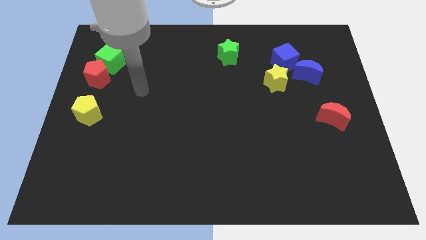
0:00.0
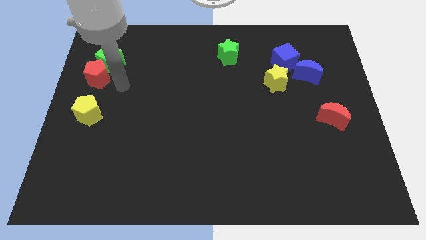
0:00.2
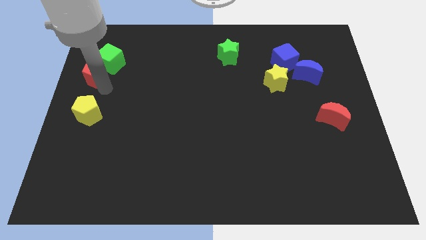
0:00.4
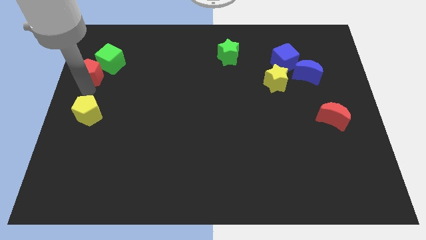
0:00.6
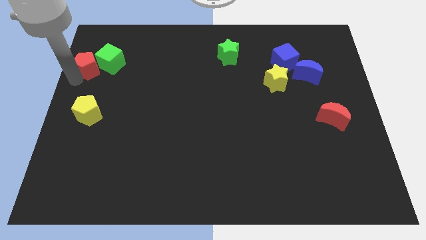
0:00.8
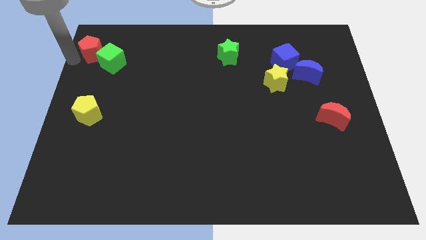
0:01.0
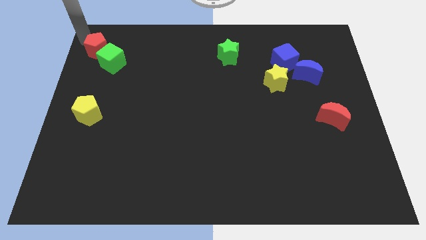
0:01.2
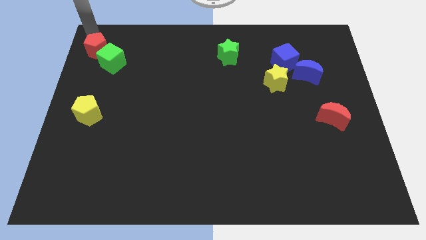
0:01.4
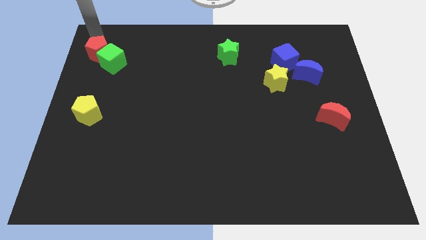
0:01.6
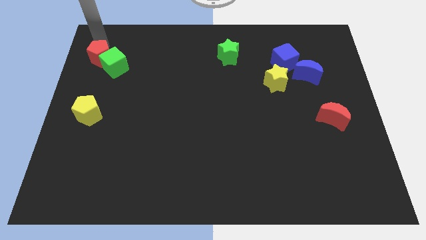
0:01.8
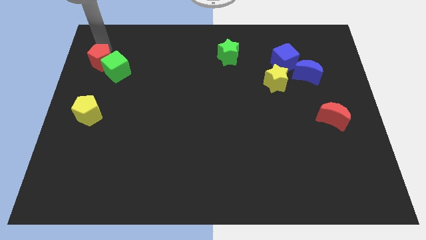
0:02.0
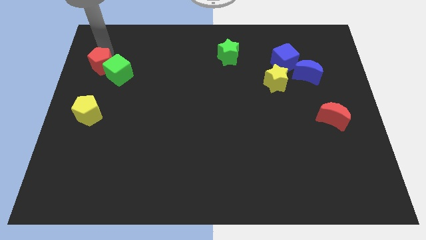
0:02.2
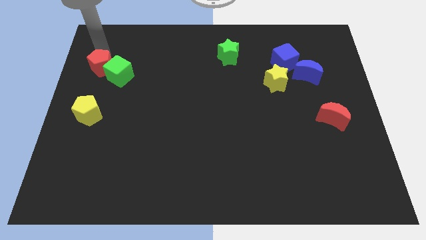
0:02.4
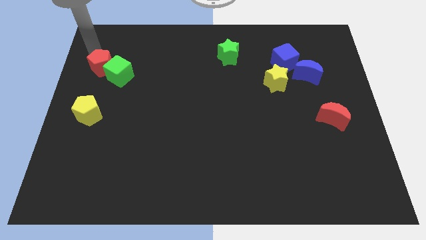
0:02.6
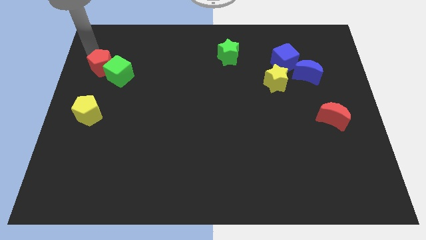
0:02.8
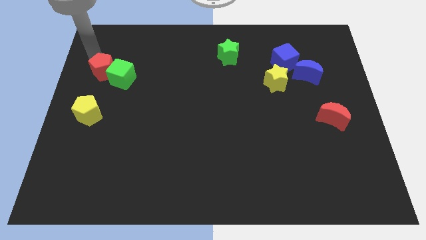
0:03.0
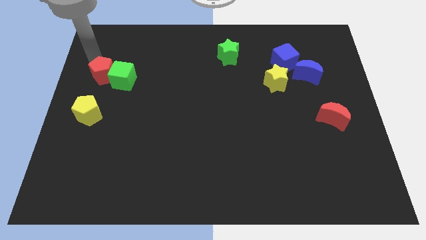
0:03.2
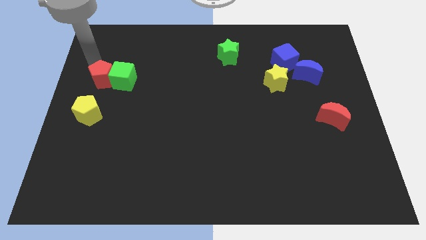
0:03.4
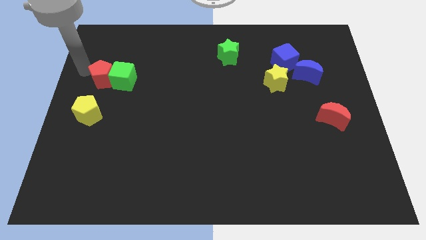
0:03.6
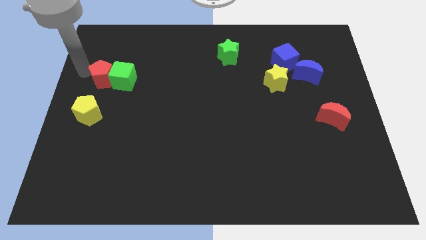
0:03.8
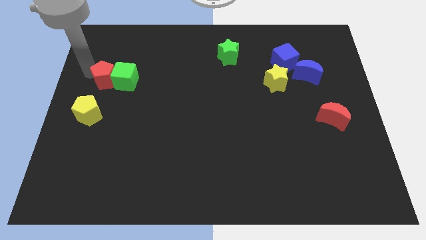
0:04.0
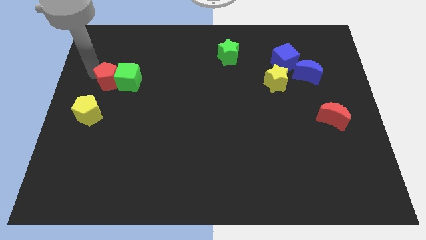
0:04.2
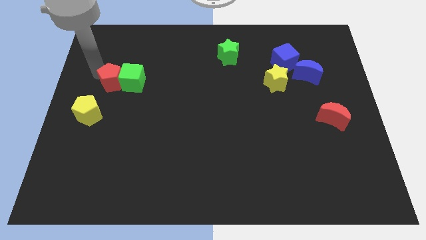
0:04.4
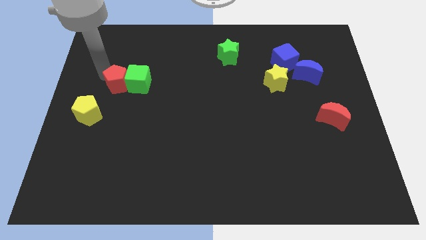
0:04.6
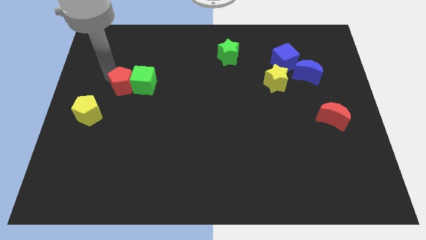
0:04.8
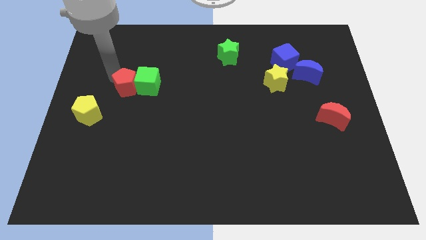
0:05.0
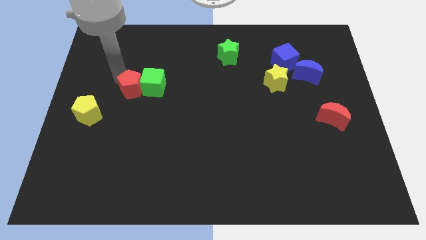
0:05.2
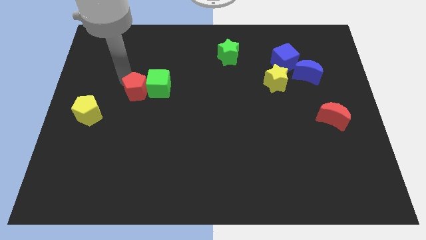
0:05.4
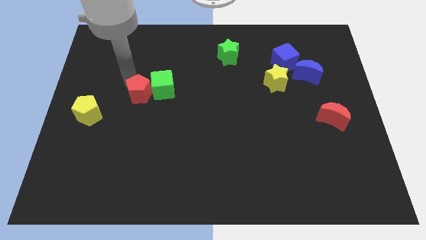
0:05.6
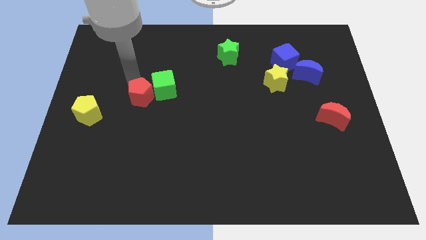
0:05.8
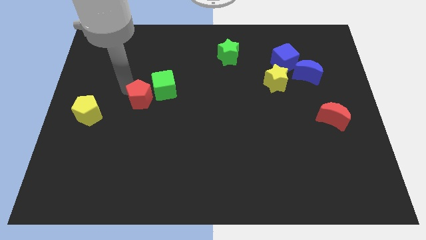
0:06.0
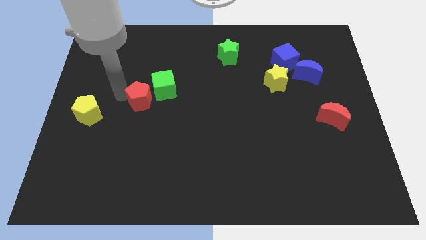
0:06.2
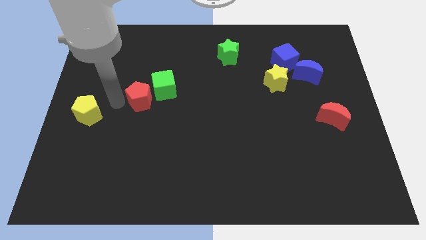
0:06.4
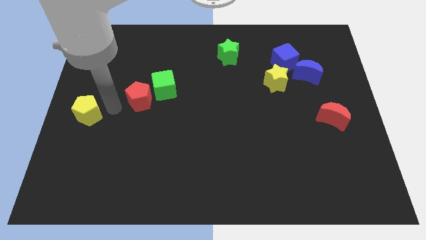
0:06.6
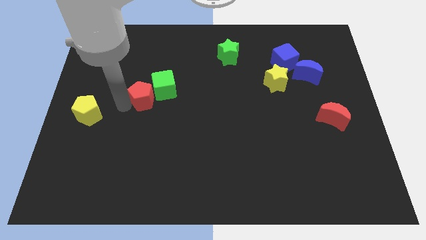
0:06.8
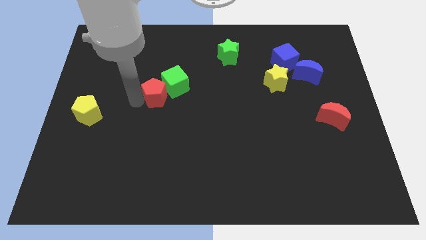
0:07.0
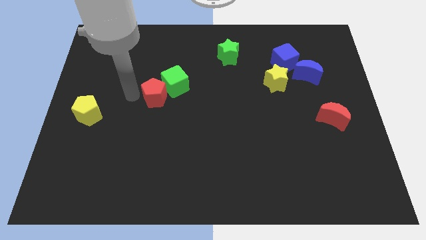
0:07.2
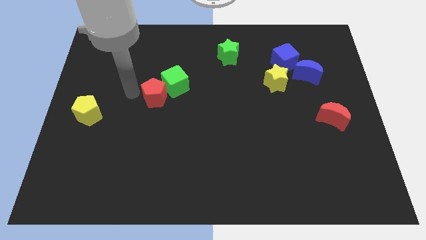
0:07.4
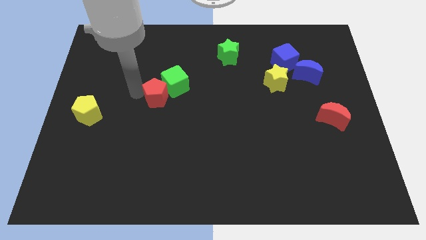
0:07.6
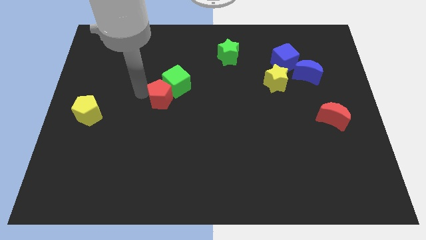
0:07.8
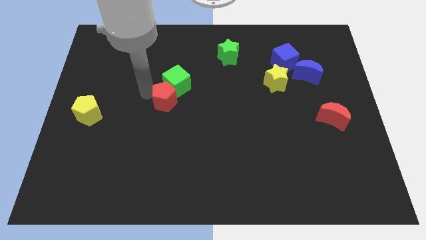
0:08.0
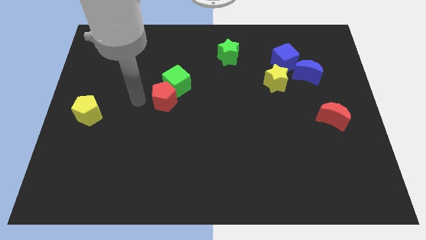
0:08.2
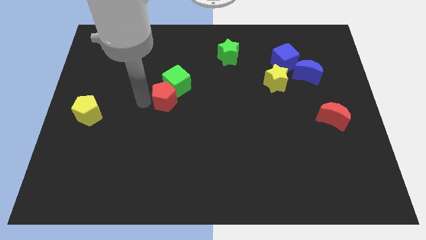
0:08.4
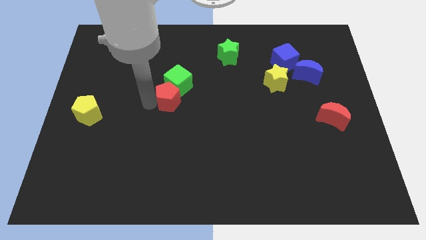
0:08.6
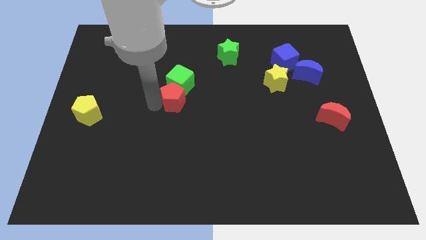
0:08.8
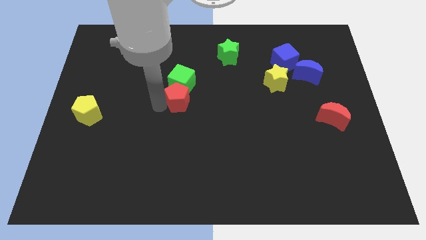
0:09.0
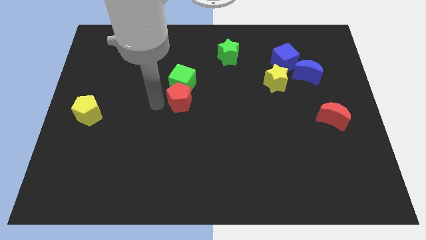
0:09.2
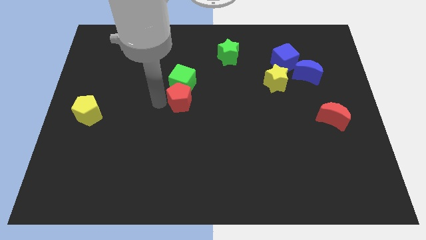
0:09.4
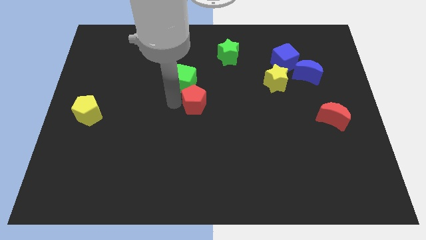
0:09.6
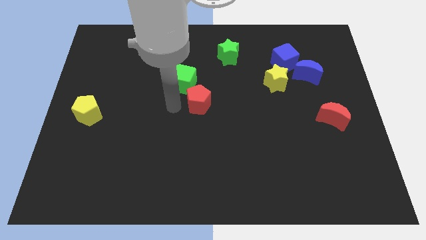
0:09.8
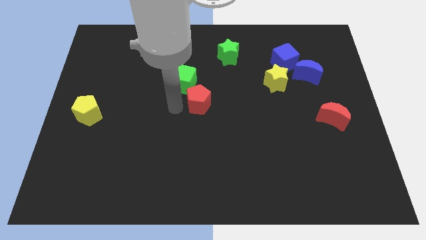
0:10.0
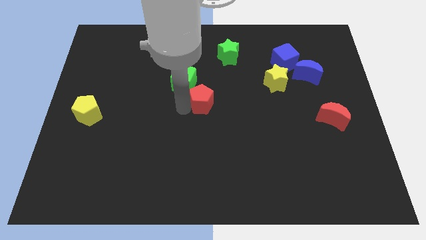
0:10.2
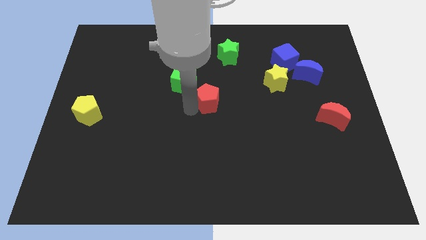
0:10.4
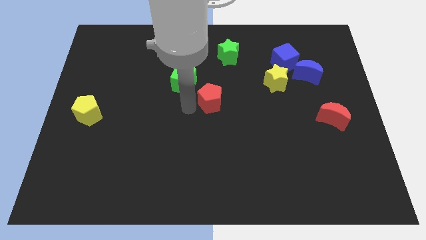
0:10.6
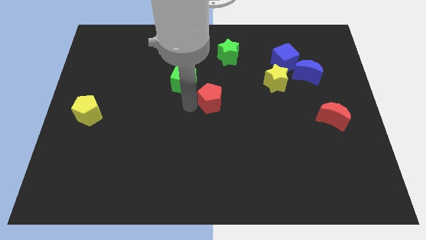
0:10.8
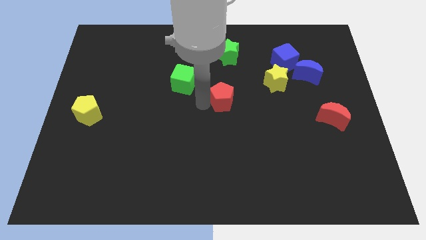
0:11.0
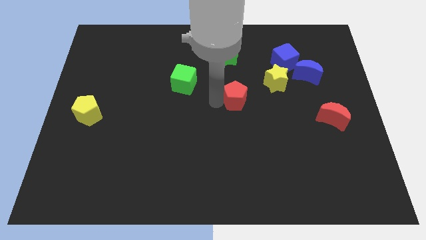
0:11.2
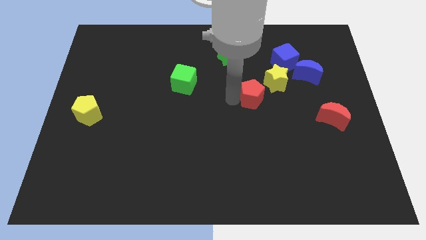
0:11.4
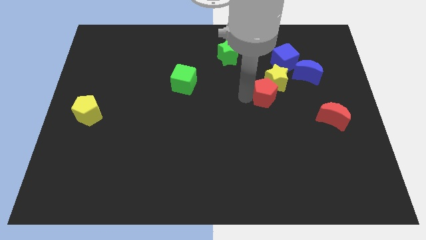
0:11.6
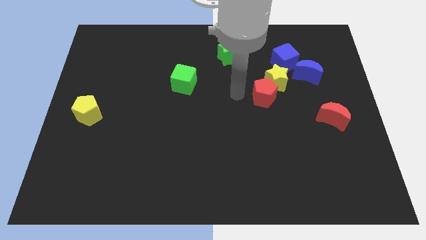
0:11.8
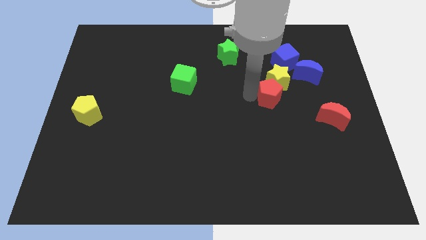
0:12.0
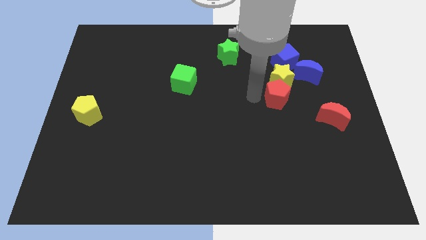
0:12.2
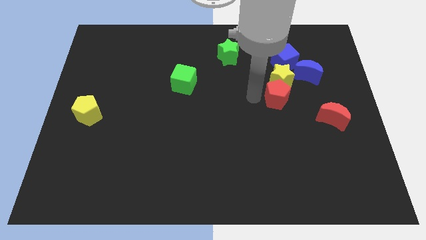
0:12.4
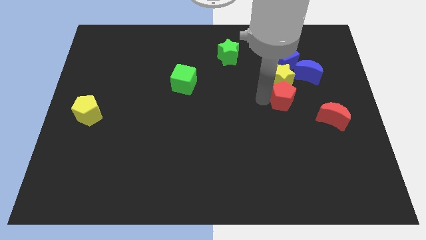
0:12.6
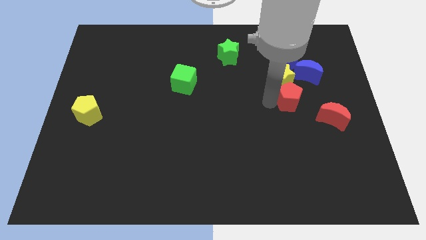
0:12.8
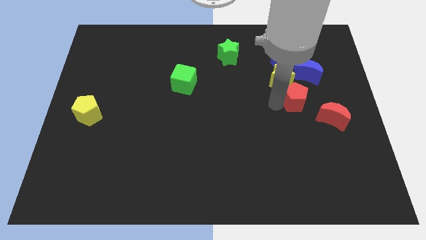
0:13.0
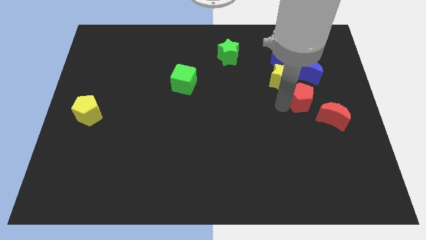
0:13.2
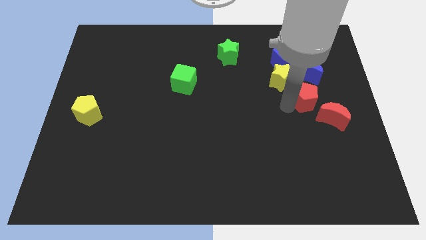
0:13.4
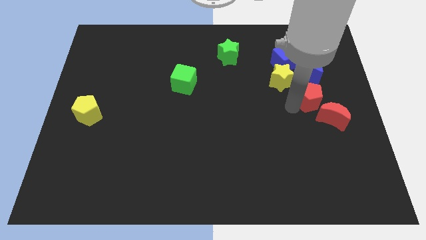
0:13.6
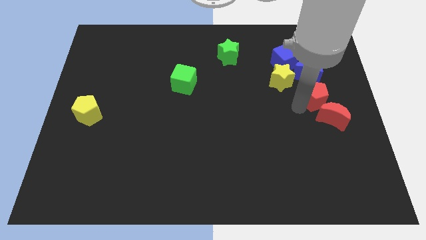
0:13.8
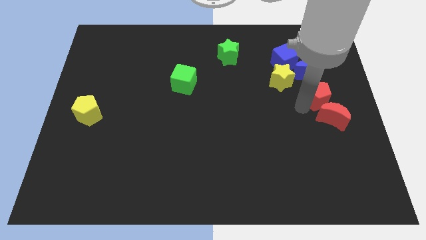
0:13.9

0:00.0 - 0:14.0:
push the red pentagon to the bottom right of the blue moon
